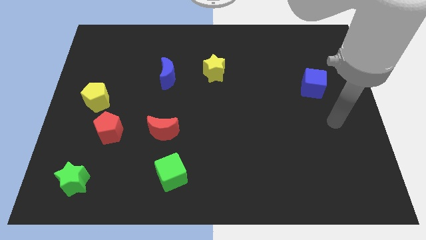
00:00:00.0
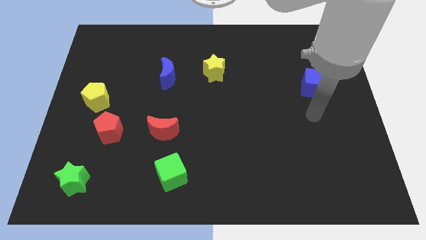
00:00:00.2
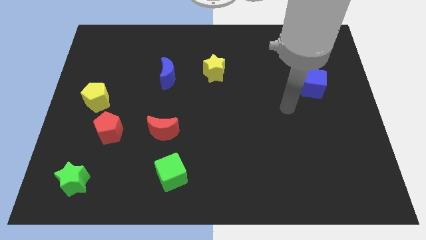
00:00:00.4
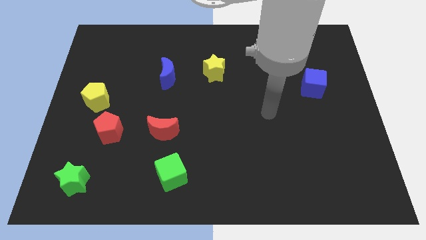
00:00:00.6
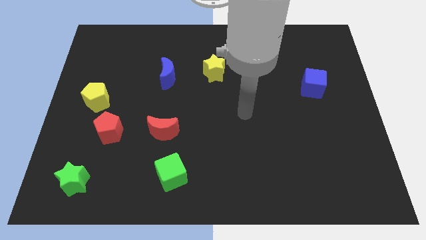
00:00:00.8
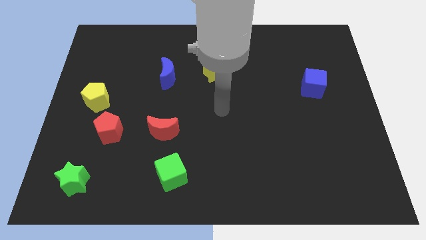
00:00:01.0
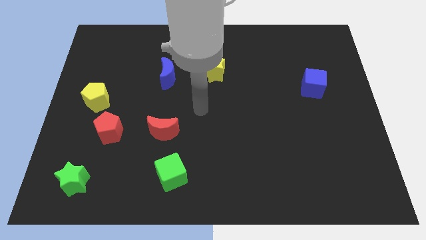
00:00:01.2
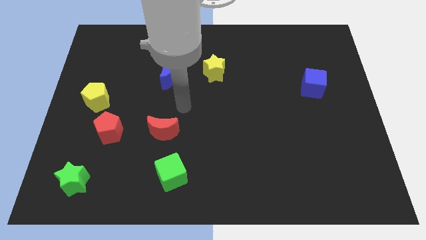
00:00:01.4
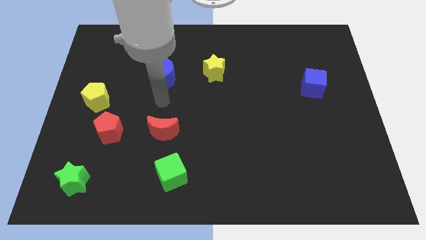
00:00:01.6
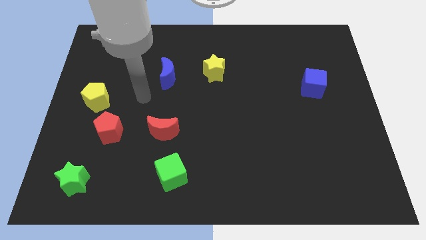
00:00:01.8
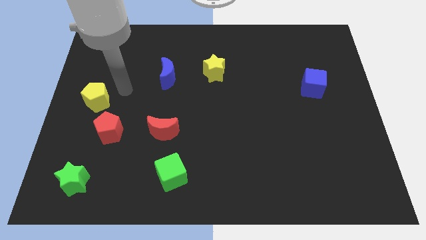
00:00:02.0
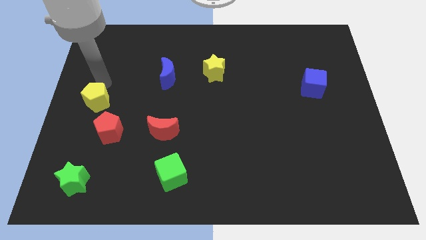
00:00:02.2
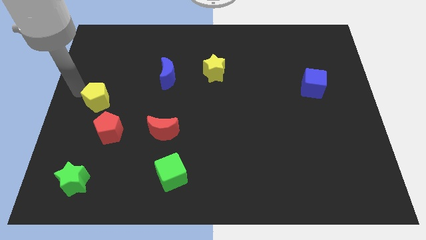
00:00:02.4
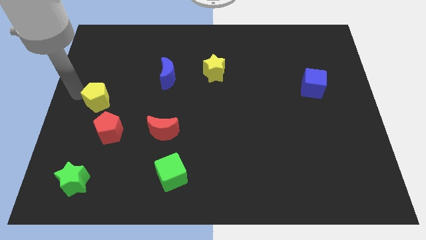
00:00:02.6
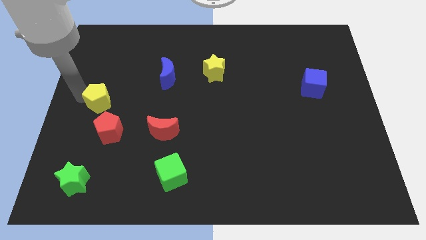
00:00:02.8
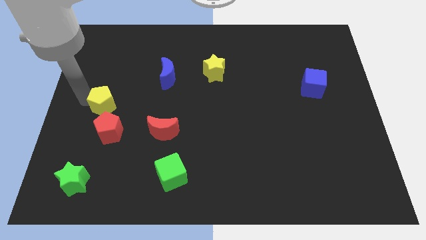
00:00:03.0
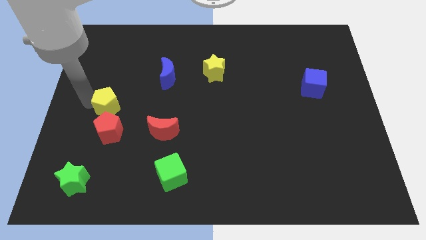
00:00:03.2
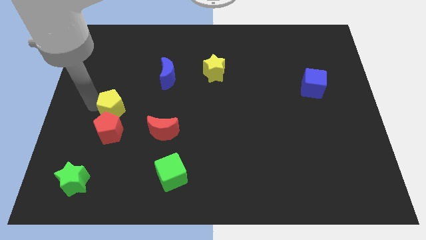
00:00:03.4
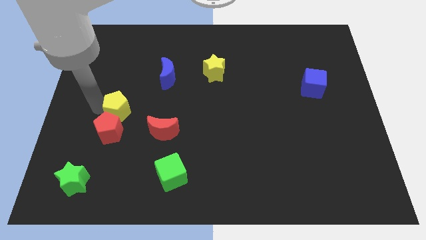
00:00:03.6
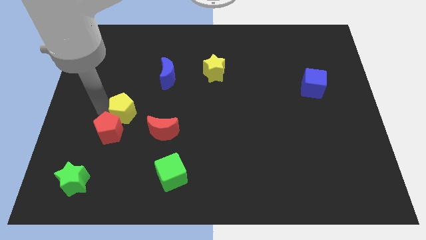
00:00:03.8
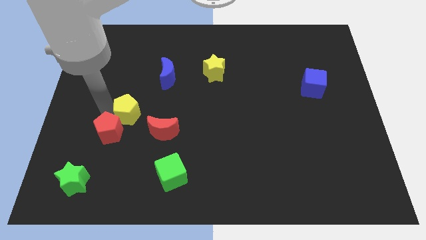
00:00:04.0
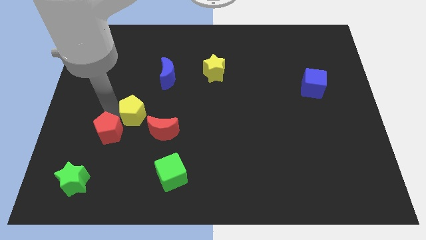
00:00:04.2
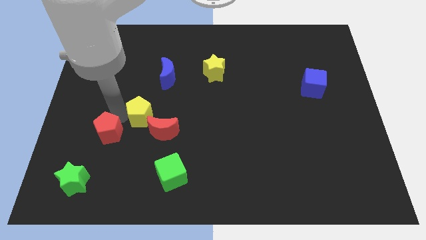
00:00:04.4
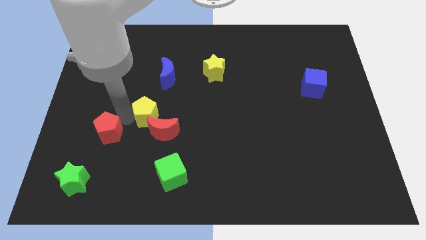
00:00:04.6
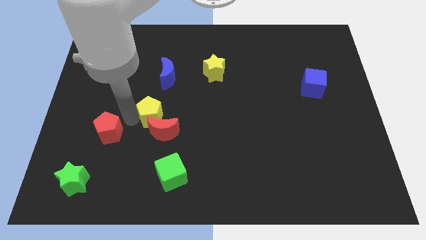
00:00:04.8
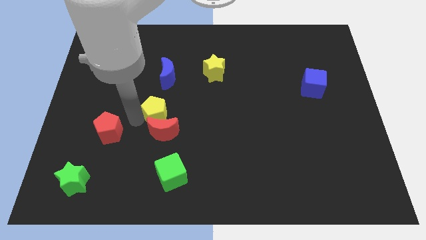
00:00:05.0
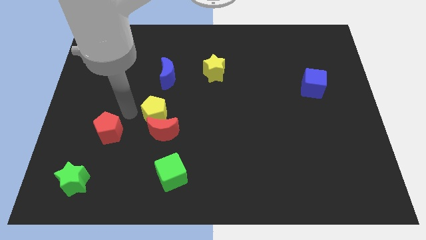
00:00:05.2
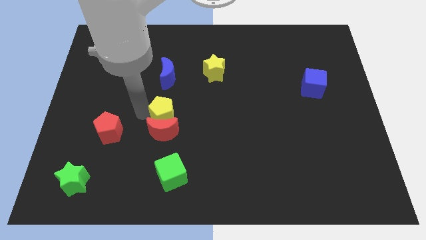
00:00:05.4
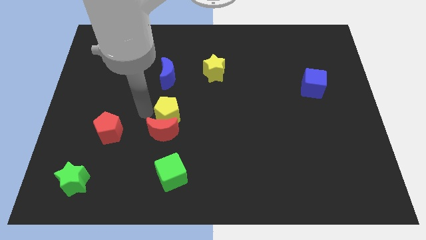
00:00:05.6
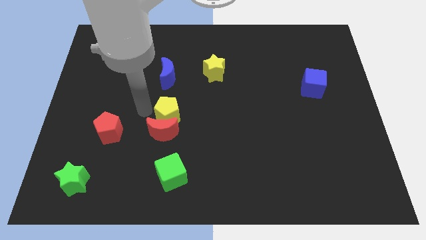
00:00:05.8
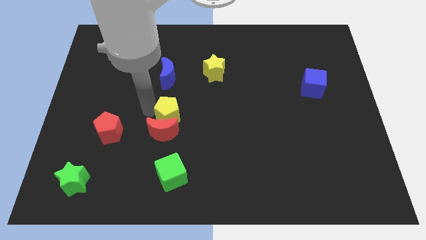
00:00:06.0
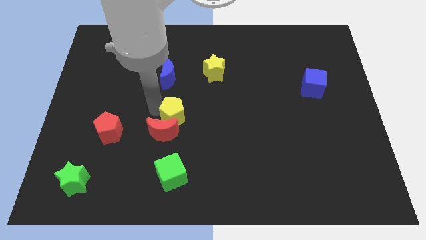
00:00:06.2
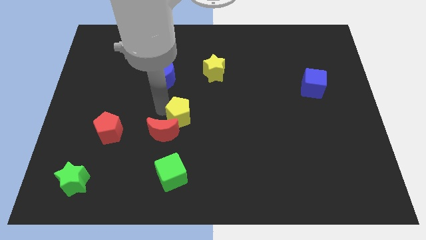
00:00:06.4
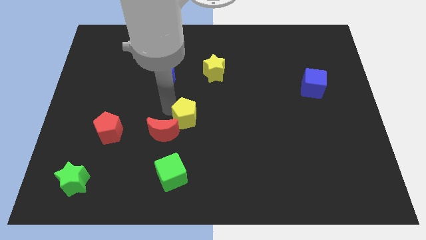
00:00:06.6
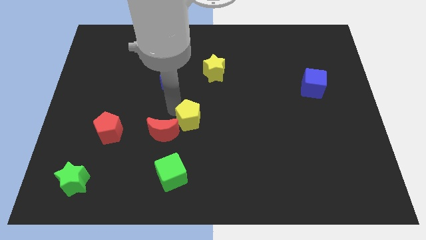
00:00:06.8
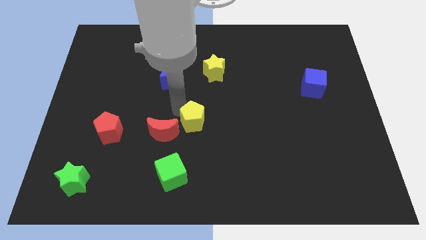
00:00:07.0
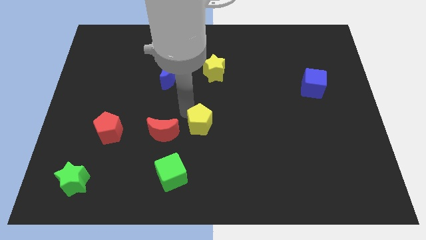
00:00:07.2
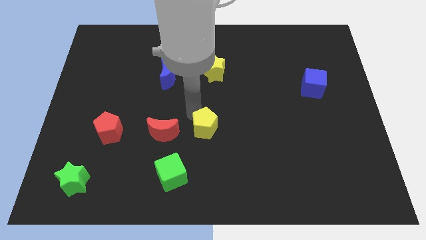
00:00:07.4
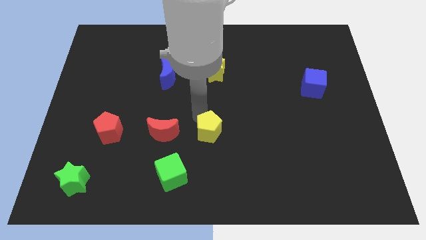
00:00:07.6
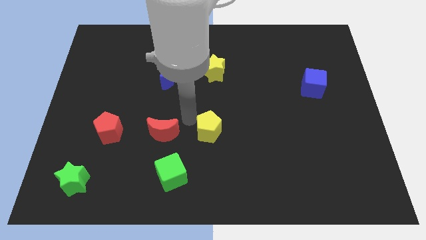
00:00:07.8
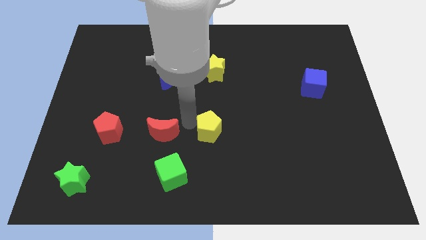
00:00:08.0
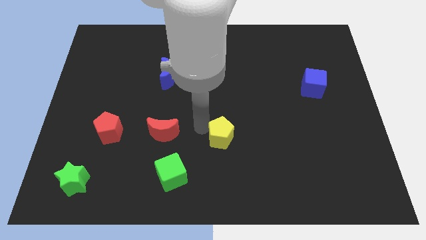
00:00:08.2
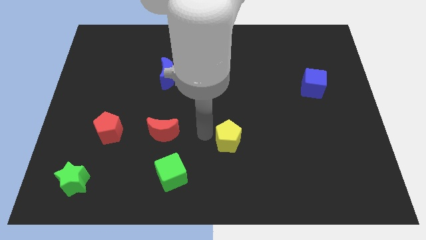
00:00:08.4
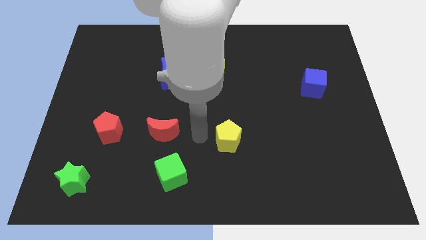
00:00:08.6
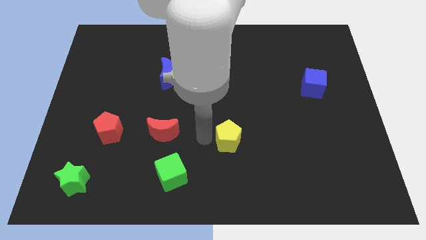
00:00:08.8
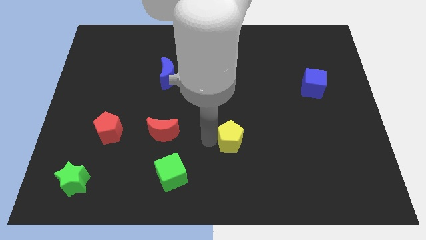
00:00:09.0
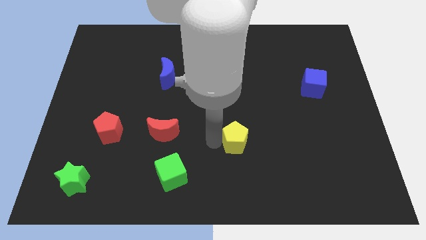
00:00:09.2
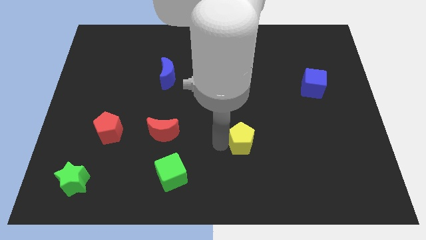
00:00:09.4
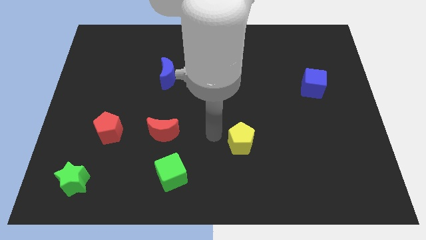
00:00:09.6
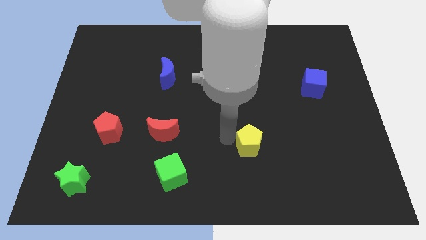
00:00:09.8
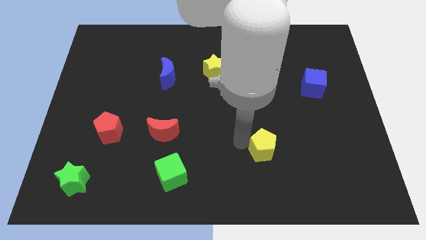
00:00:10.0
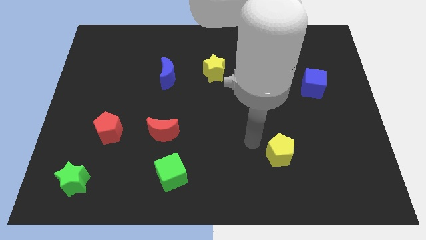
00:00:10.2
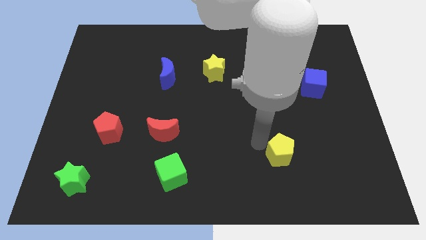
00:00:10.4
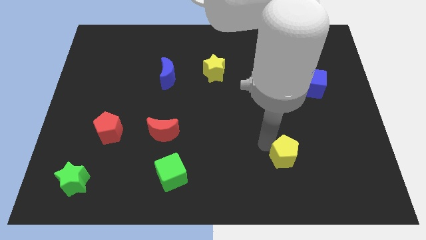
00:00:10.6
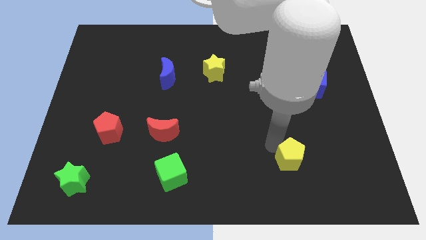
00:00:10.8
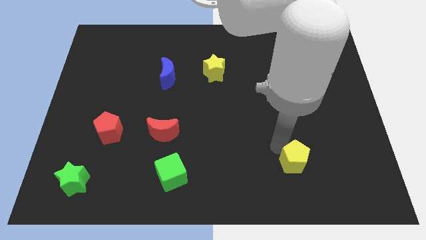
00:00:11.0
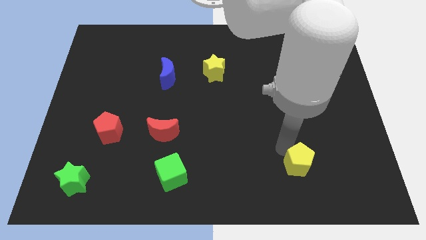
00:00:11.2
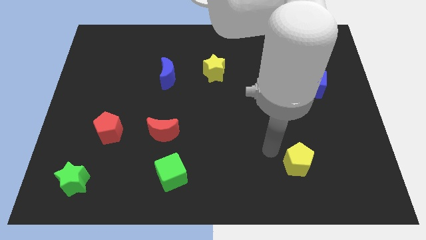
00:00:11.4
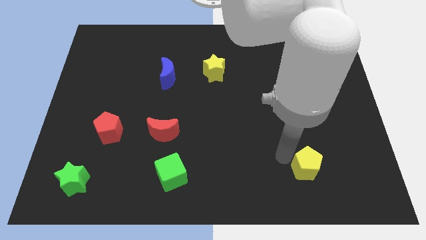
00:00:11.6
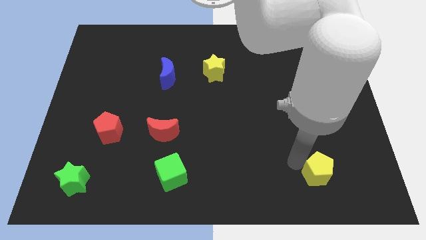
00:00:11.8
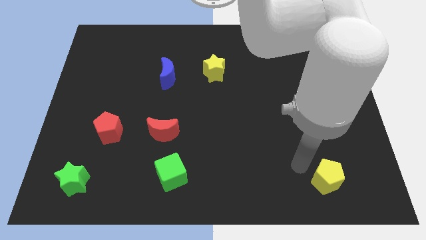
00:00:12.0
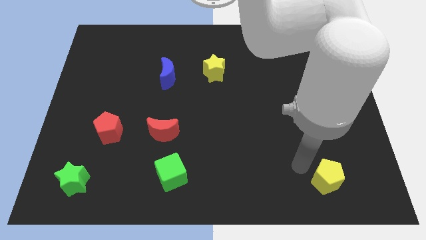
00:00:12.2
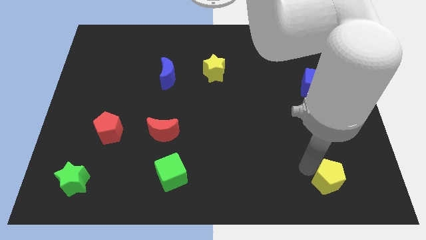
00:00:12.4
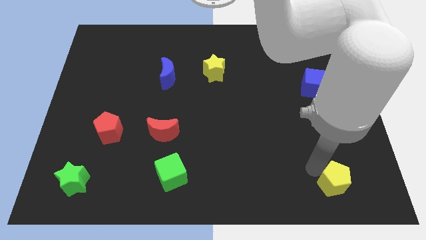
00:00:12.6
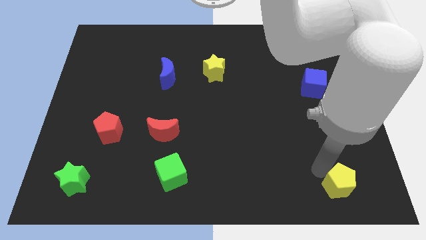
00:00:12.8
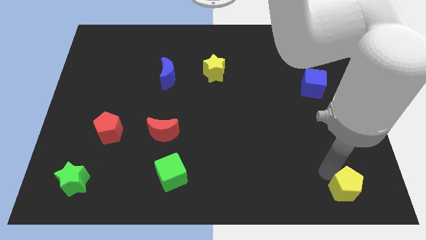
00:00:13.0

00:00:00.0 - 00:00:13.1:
push the yellow pentagon to the lower right corner
